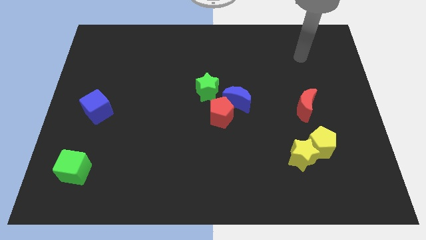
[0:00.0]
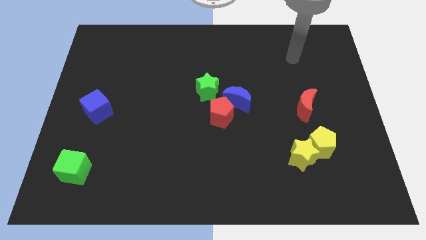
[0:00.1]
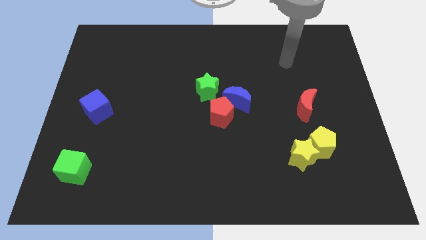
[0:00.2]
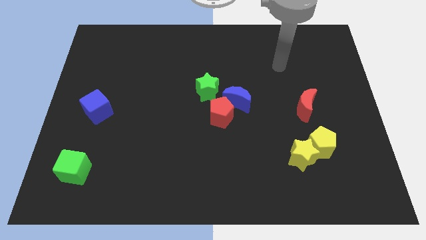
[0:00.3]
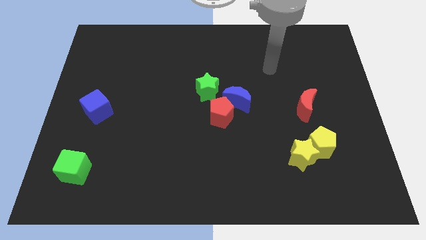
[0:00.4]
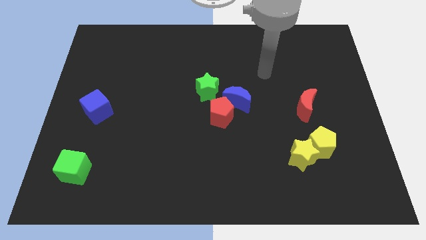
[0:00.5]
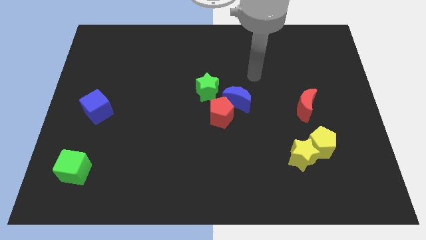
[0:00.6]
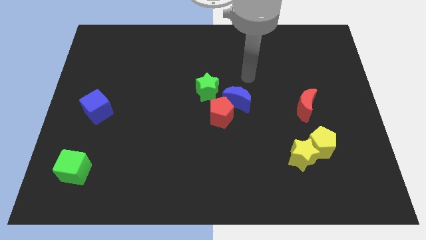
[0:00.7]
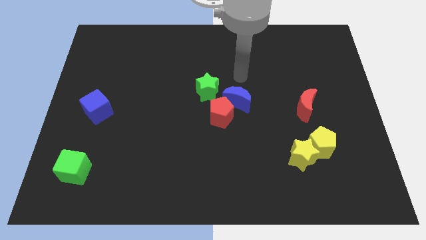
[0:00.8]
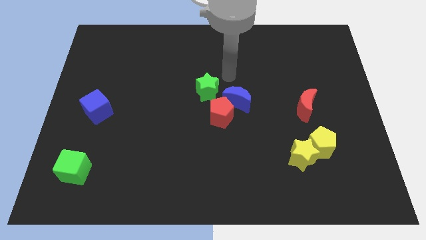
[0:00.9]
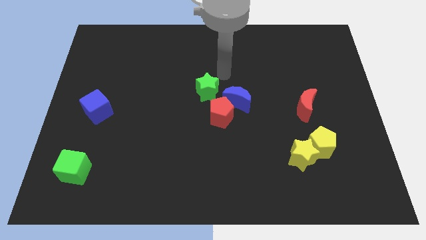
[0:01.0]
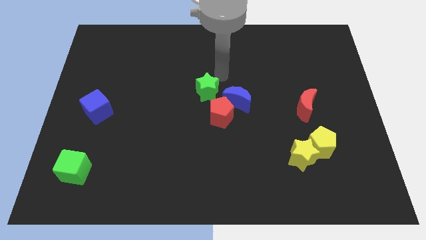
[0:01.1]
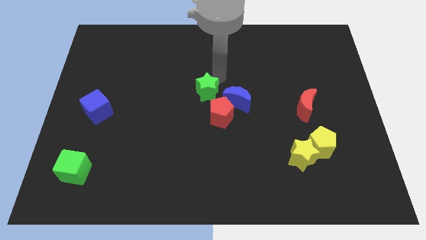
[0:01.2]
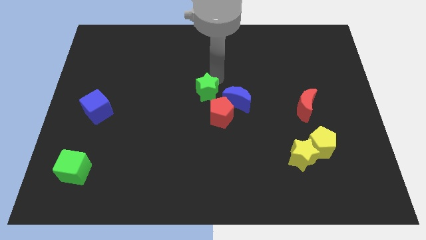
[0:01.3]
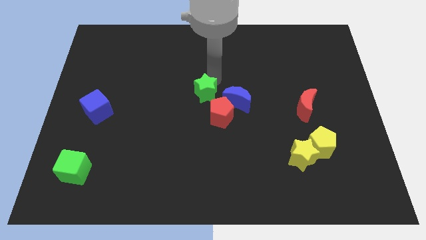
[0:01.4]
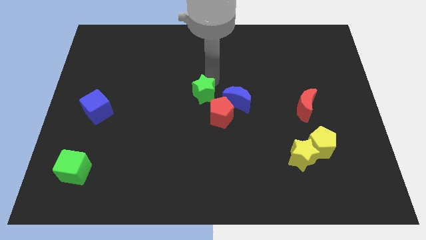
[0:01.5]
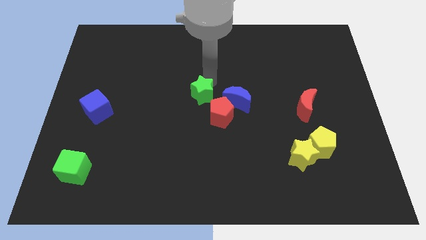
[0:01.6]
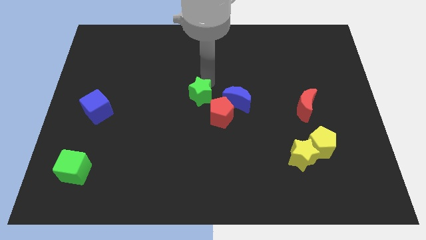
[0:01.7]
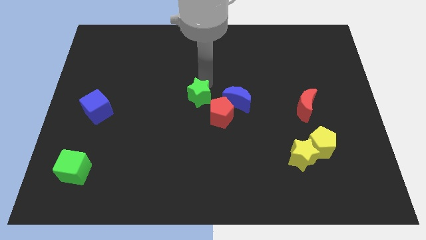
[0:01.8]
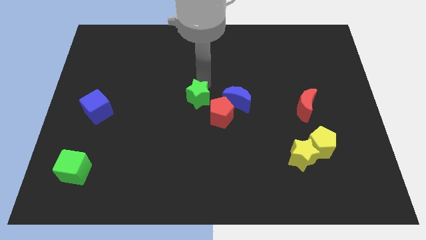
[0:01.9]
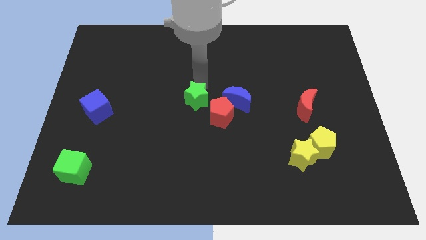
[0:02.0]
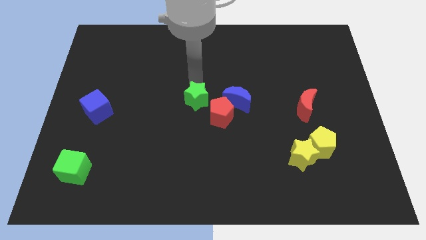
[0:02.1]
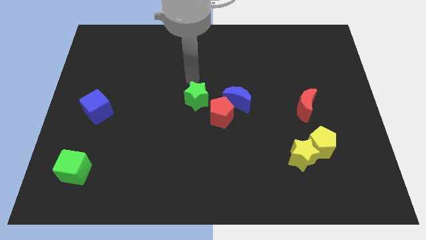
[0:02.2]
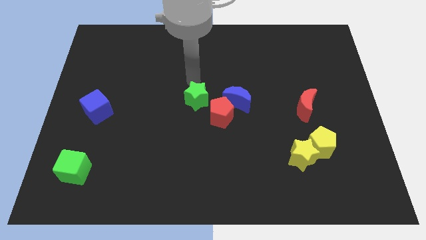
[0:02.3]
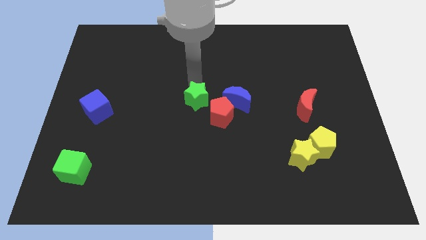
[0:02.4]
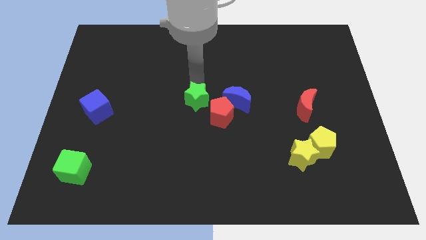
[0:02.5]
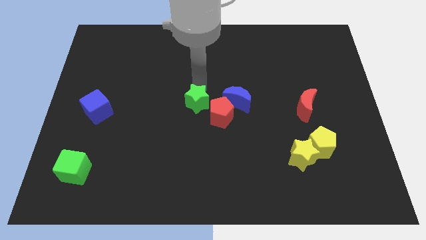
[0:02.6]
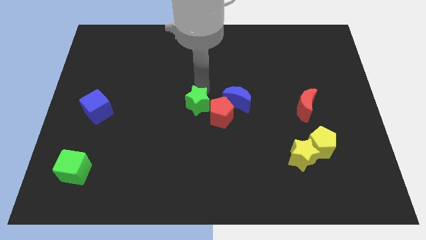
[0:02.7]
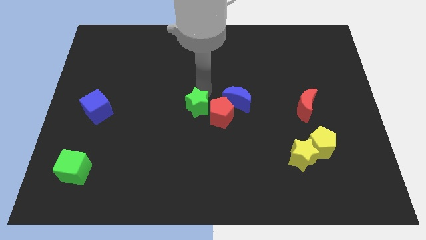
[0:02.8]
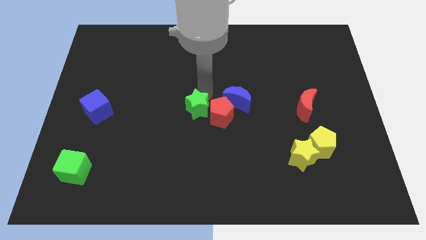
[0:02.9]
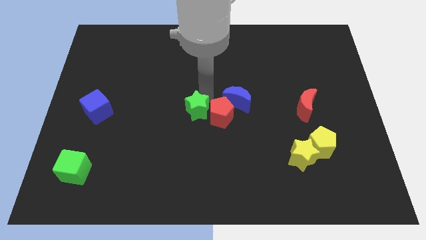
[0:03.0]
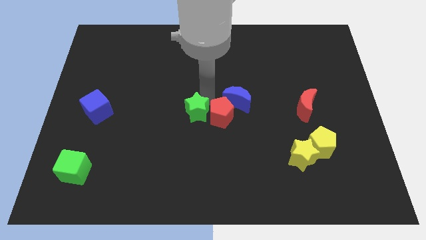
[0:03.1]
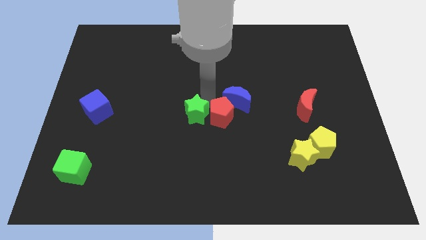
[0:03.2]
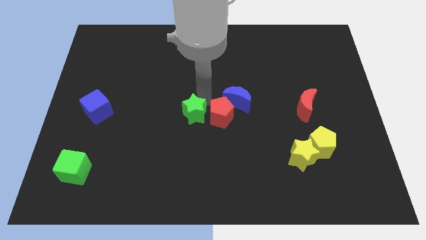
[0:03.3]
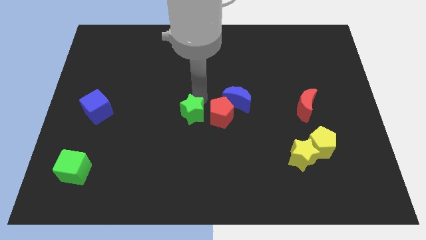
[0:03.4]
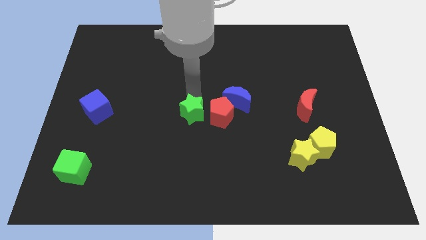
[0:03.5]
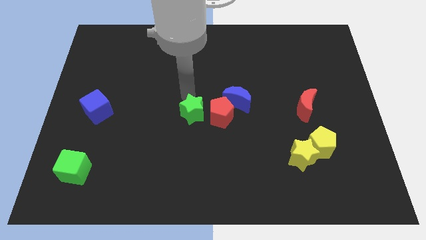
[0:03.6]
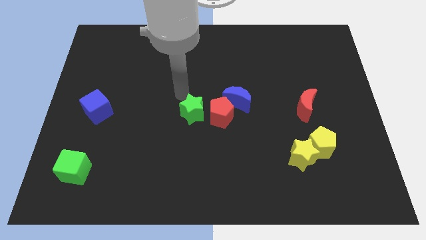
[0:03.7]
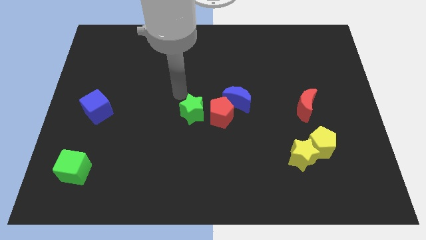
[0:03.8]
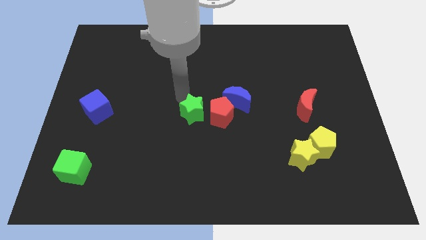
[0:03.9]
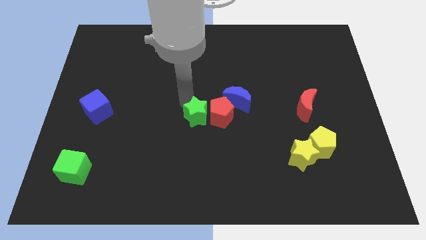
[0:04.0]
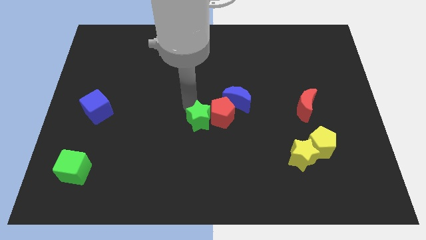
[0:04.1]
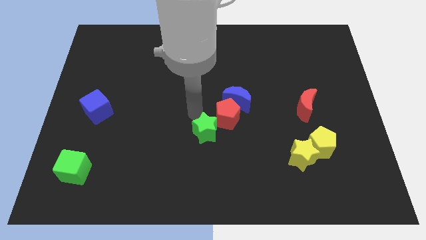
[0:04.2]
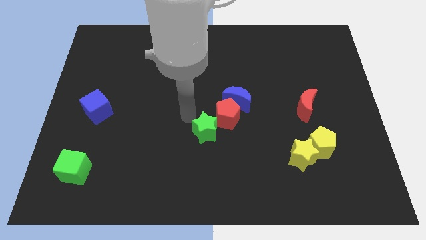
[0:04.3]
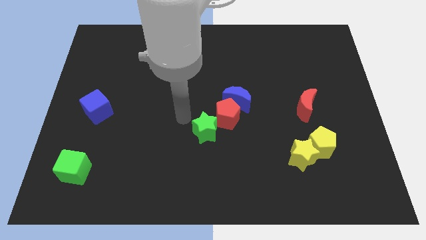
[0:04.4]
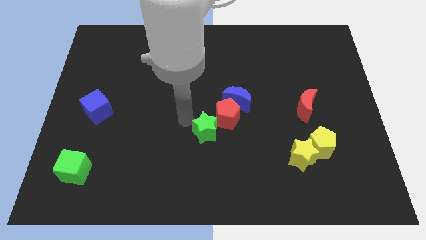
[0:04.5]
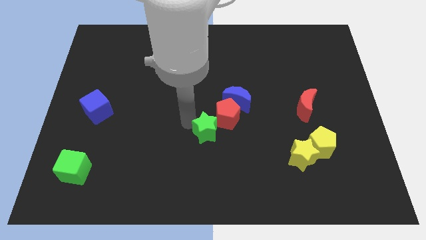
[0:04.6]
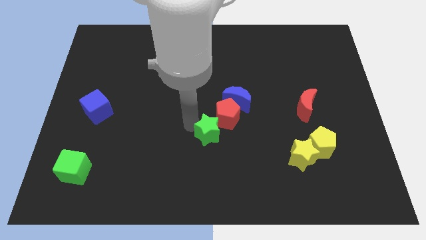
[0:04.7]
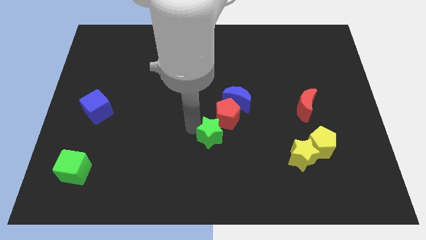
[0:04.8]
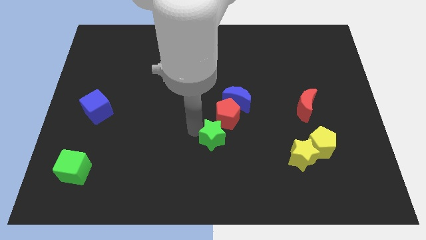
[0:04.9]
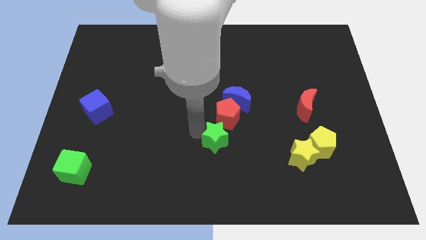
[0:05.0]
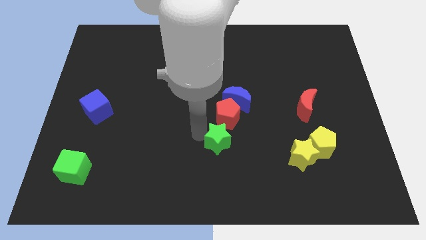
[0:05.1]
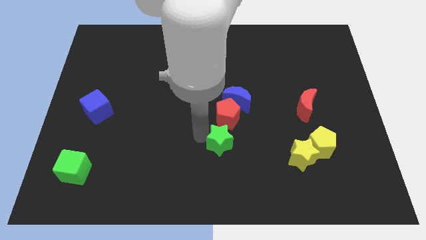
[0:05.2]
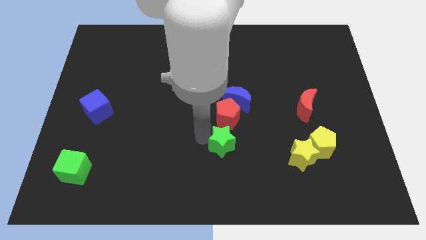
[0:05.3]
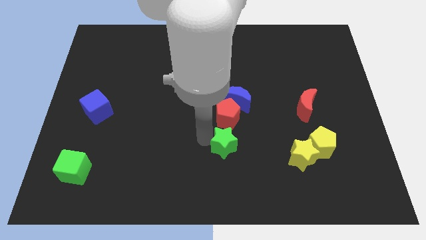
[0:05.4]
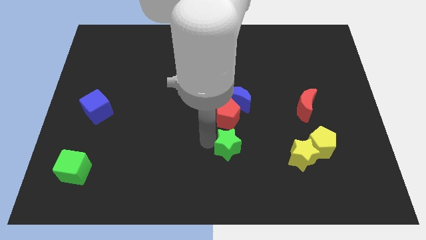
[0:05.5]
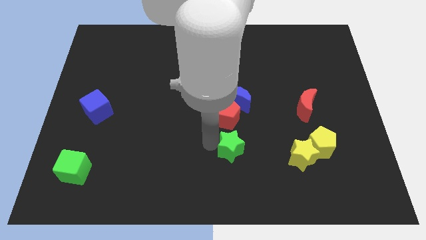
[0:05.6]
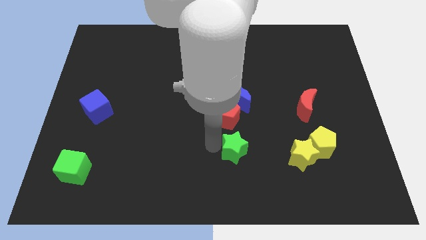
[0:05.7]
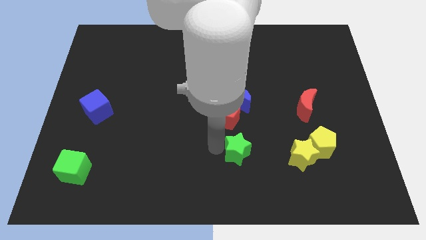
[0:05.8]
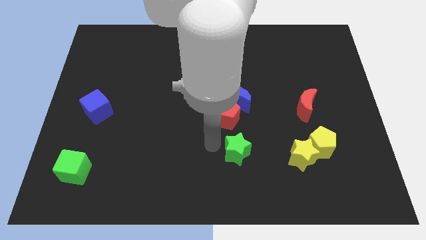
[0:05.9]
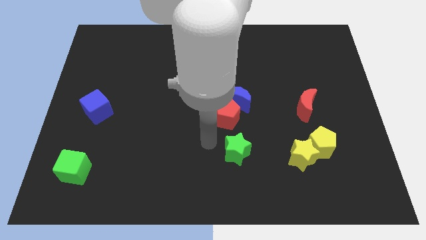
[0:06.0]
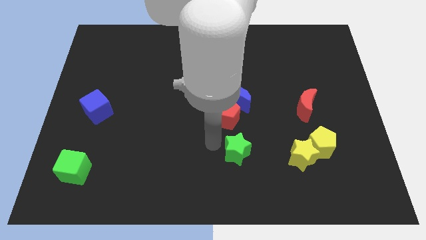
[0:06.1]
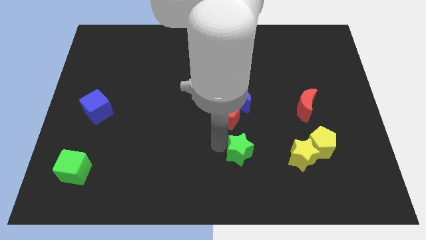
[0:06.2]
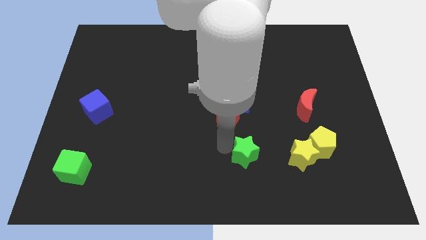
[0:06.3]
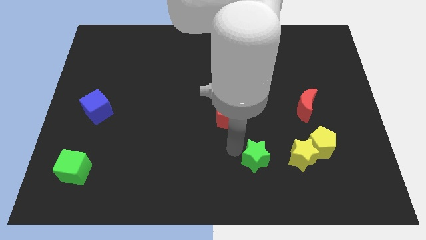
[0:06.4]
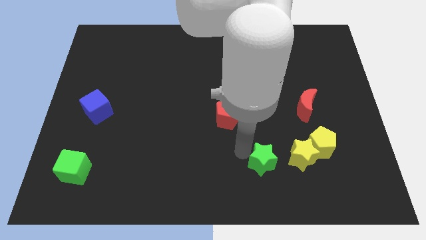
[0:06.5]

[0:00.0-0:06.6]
push the green star diagonally downwards and right

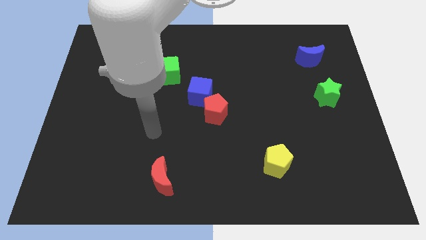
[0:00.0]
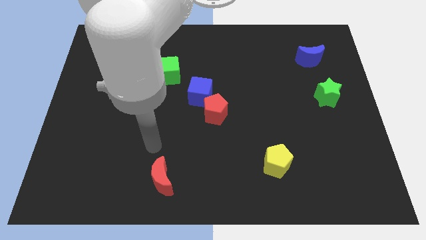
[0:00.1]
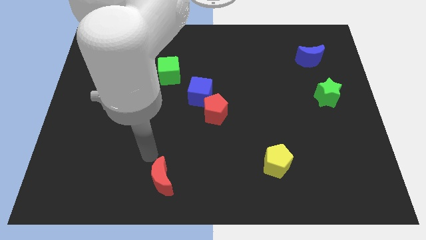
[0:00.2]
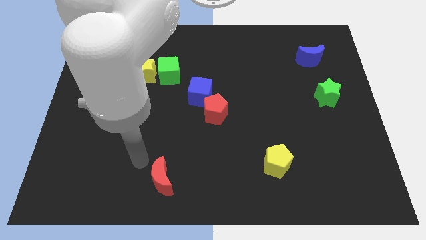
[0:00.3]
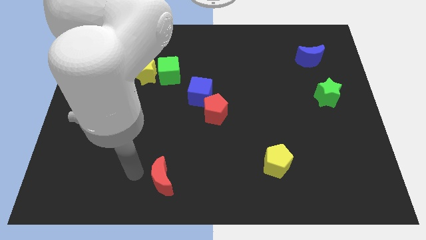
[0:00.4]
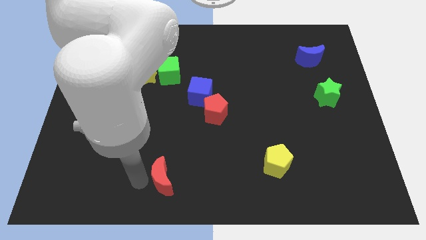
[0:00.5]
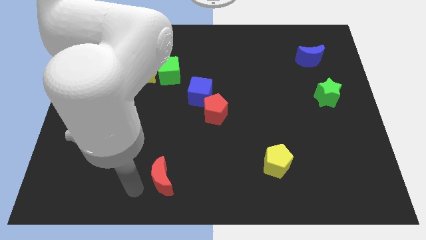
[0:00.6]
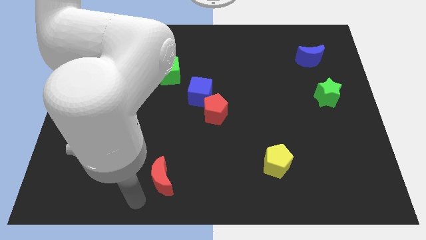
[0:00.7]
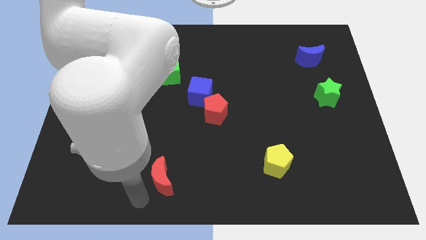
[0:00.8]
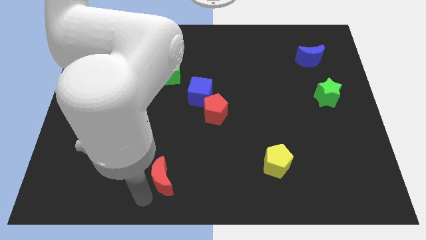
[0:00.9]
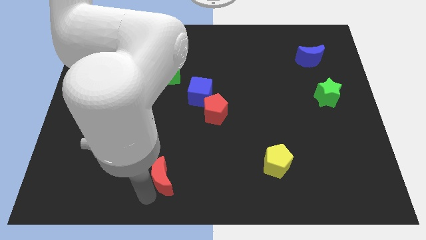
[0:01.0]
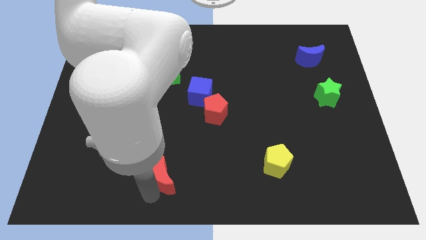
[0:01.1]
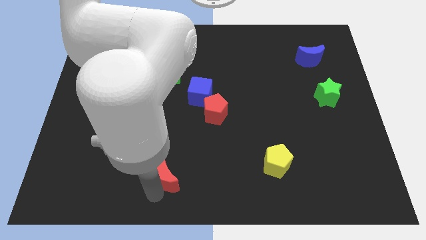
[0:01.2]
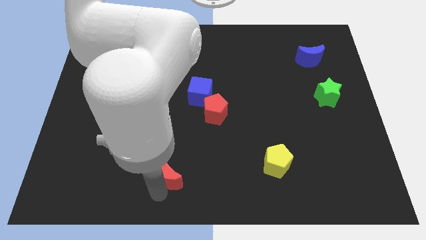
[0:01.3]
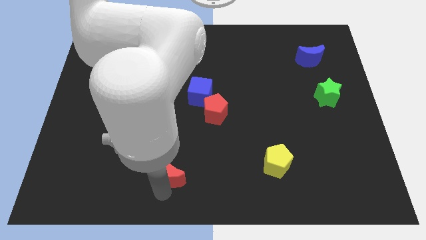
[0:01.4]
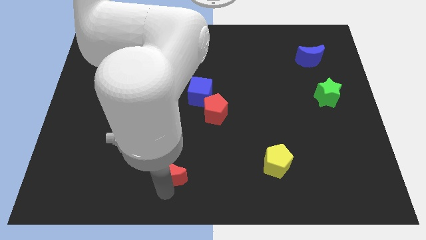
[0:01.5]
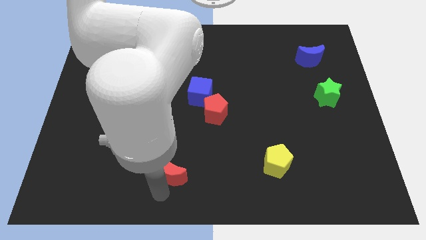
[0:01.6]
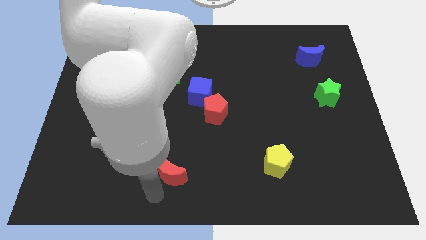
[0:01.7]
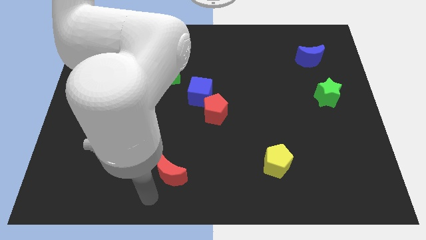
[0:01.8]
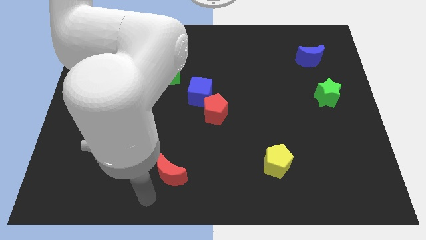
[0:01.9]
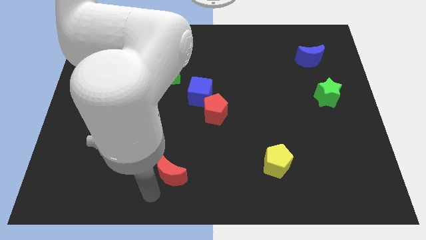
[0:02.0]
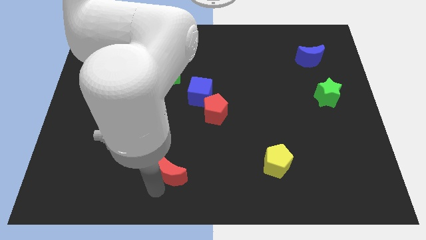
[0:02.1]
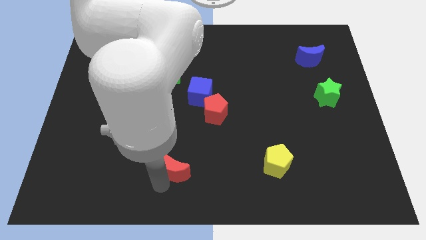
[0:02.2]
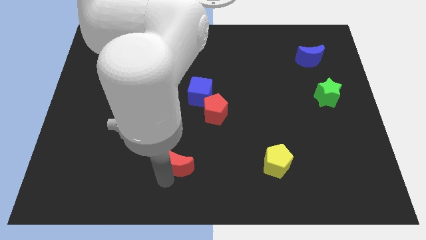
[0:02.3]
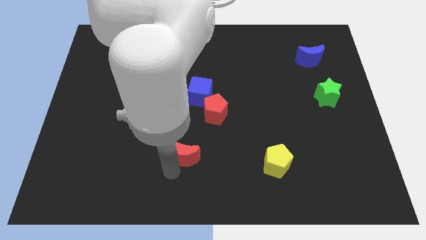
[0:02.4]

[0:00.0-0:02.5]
slightly push the red moon upwards and right
